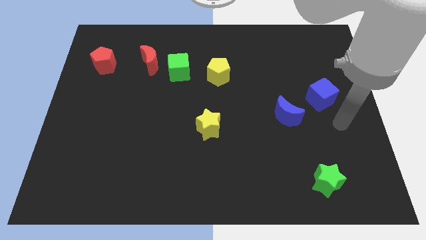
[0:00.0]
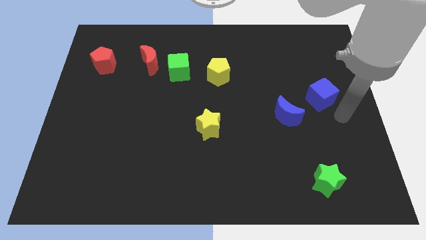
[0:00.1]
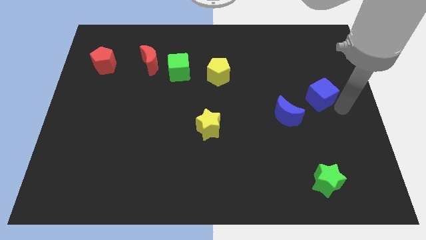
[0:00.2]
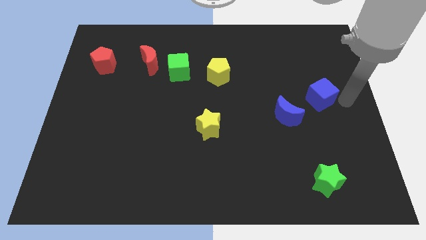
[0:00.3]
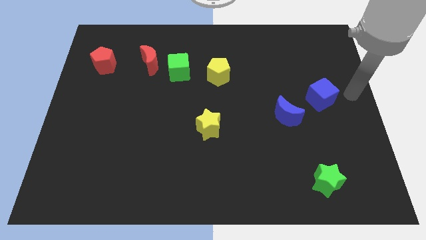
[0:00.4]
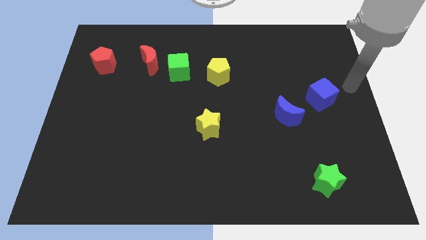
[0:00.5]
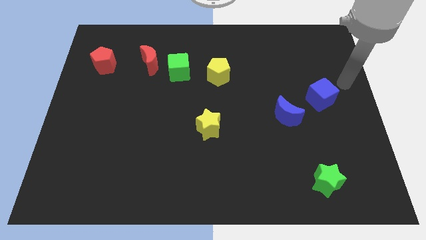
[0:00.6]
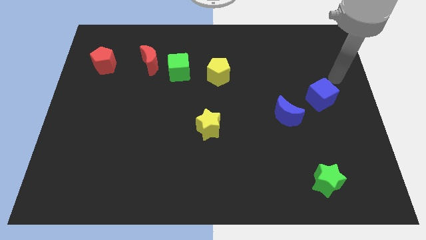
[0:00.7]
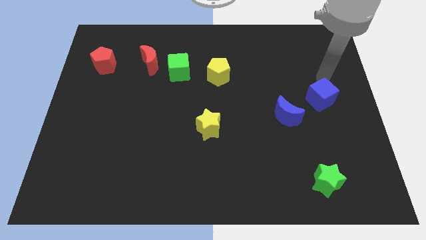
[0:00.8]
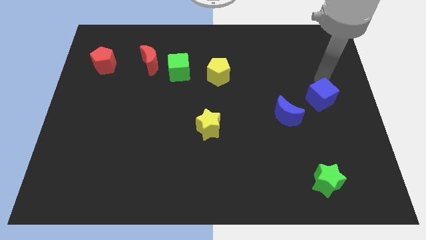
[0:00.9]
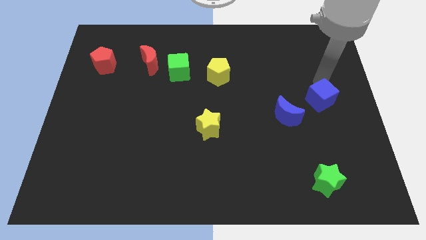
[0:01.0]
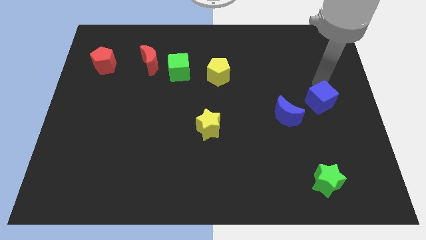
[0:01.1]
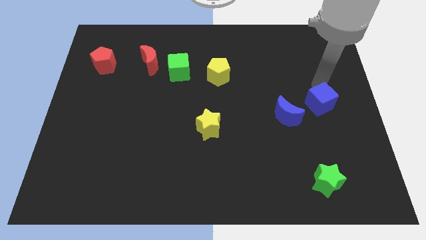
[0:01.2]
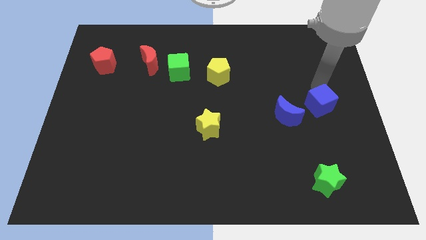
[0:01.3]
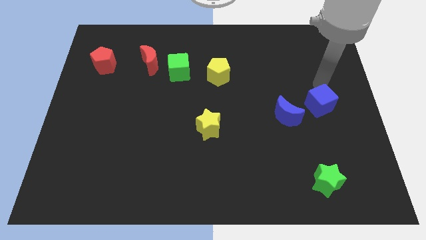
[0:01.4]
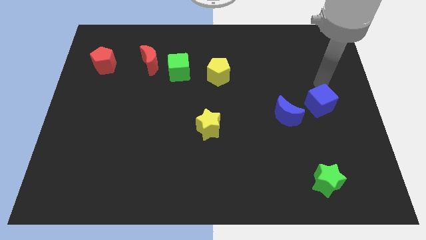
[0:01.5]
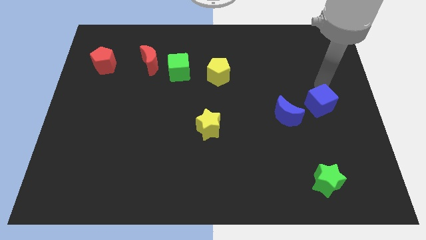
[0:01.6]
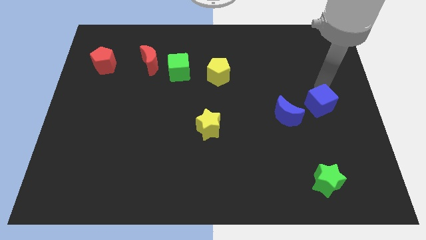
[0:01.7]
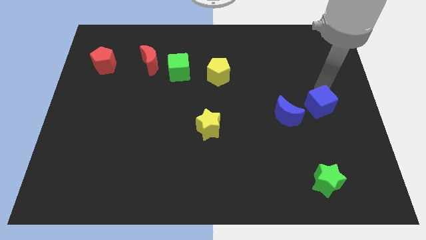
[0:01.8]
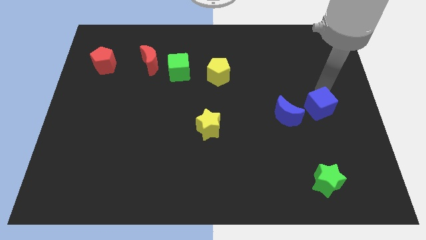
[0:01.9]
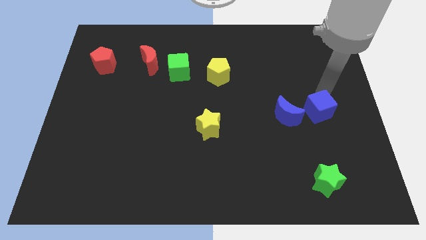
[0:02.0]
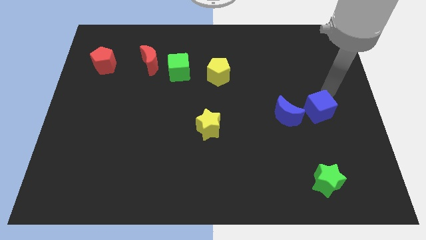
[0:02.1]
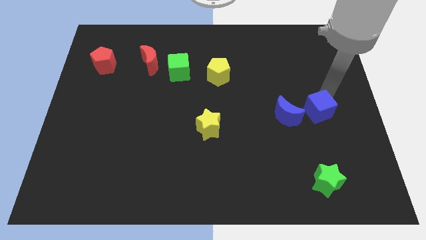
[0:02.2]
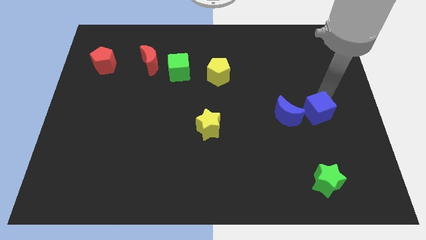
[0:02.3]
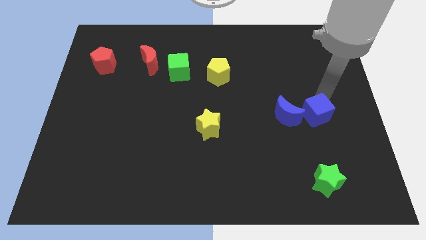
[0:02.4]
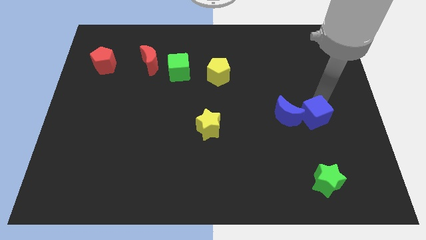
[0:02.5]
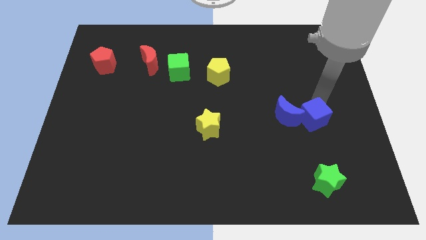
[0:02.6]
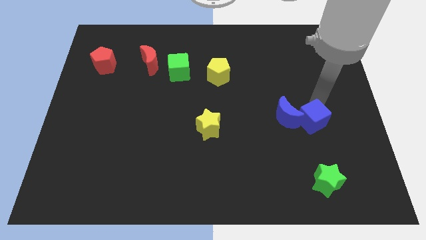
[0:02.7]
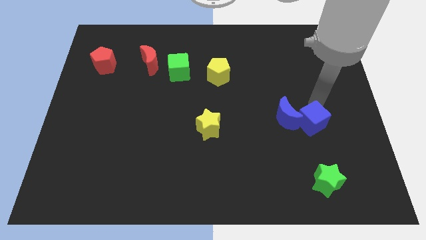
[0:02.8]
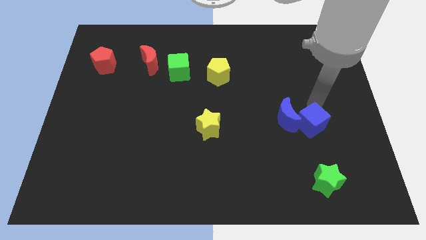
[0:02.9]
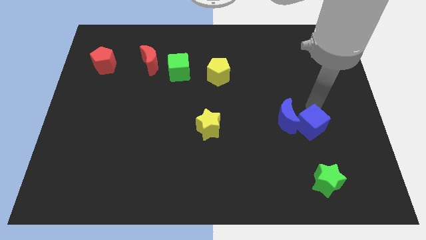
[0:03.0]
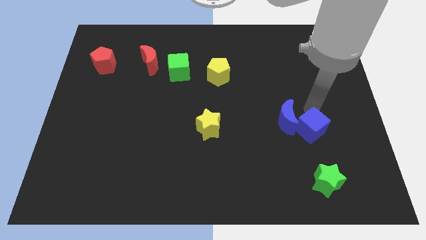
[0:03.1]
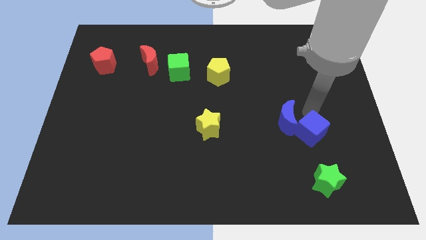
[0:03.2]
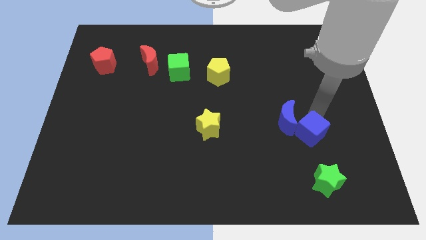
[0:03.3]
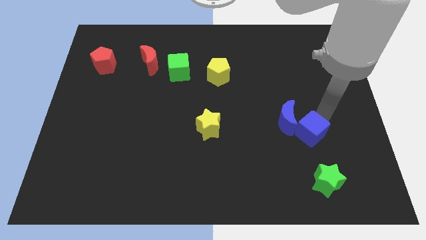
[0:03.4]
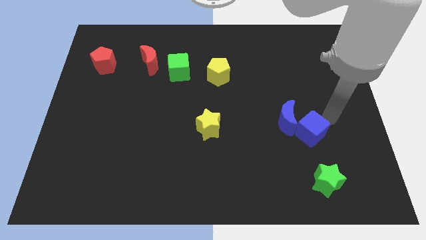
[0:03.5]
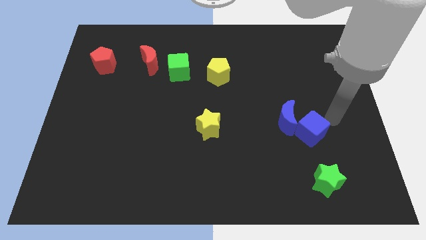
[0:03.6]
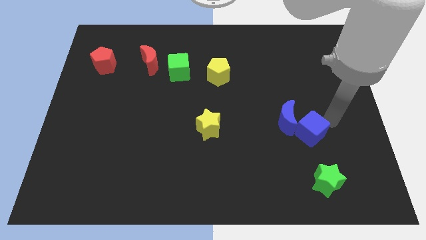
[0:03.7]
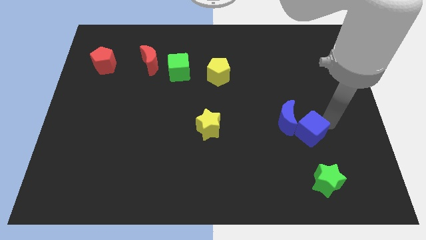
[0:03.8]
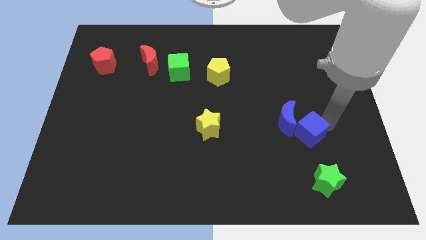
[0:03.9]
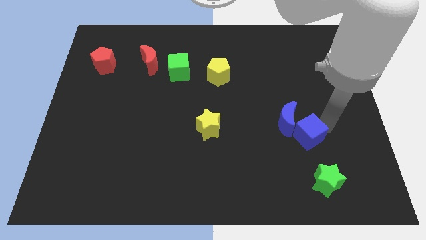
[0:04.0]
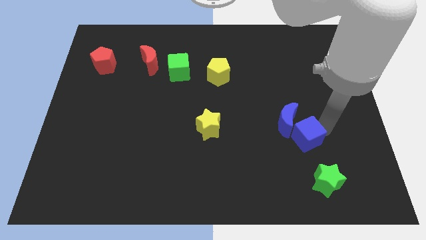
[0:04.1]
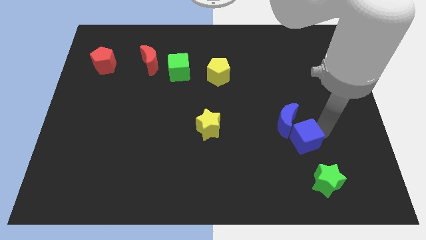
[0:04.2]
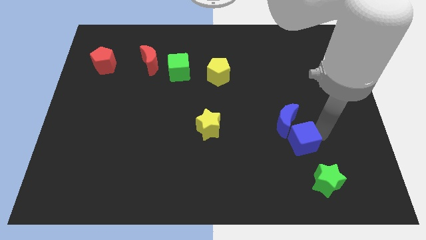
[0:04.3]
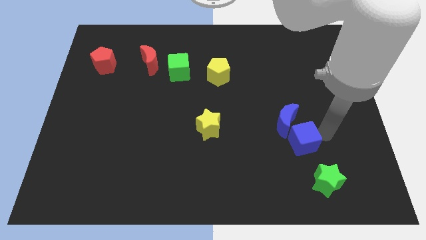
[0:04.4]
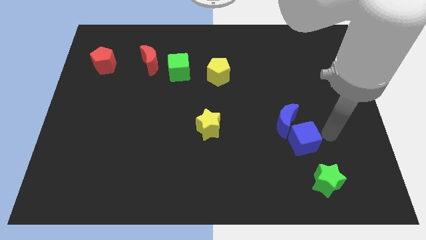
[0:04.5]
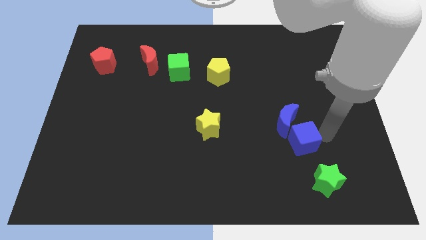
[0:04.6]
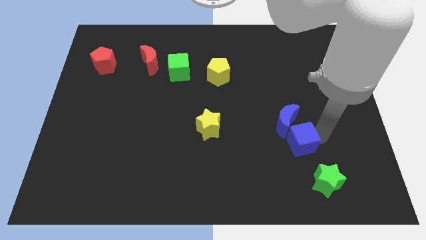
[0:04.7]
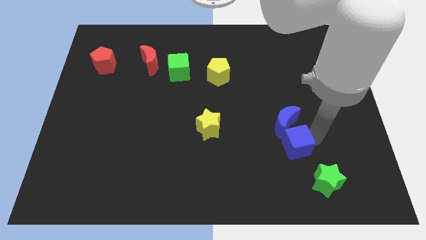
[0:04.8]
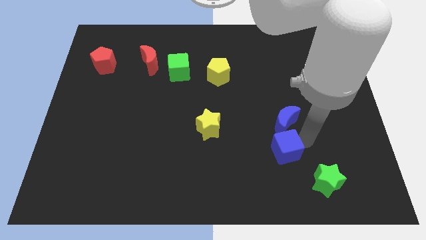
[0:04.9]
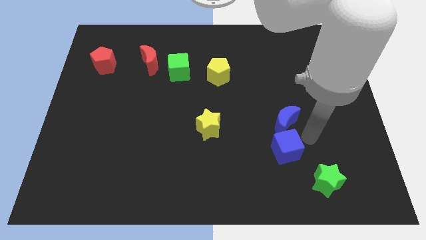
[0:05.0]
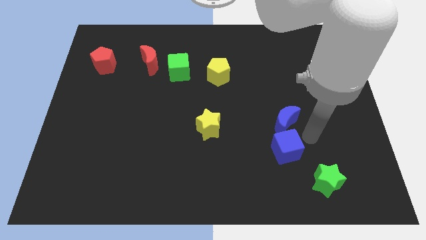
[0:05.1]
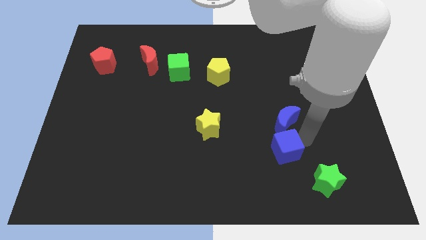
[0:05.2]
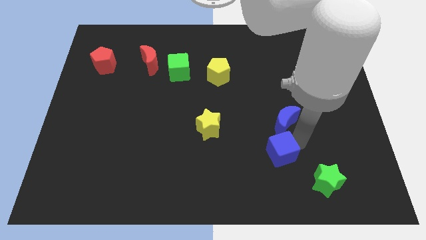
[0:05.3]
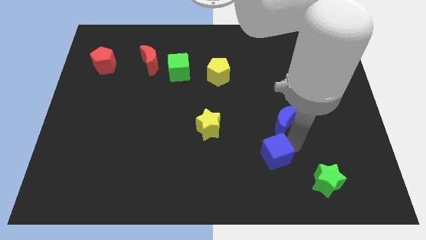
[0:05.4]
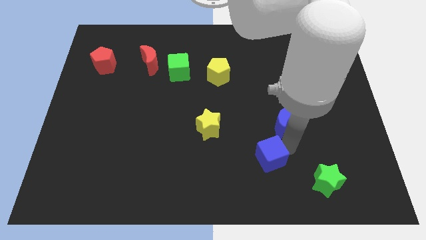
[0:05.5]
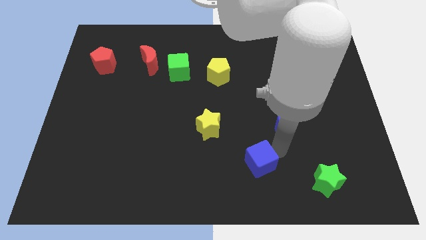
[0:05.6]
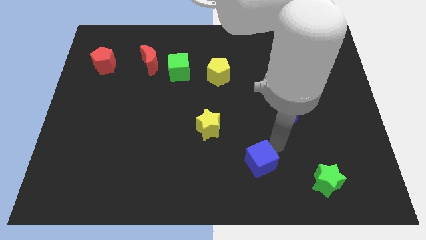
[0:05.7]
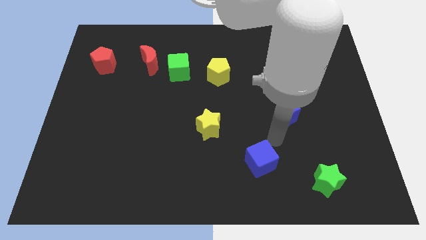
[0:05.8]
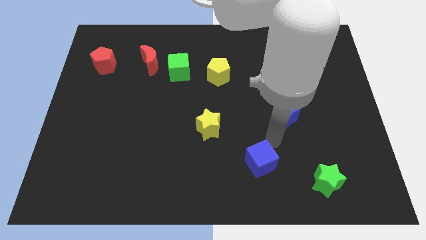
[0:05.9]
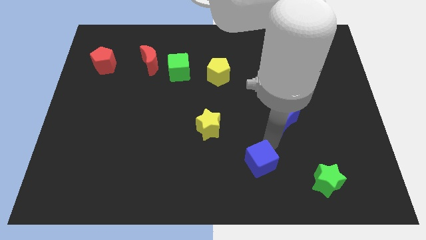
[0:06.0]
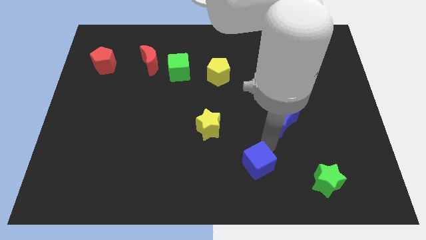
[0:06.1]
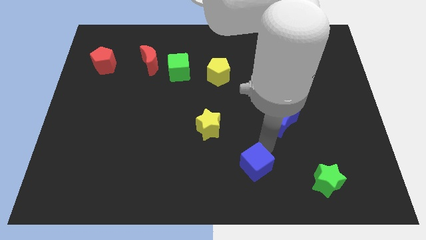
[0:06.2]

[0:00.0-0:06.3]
move the blue cube to the bottom side
